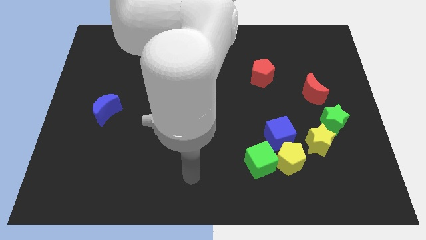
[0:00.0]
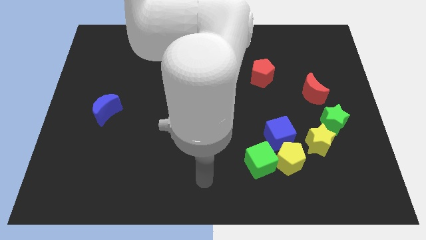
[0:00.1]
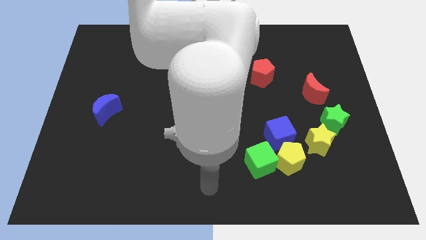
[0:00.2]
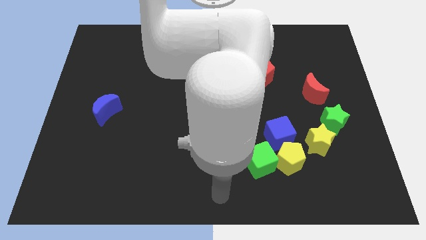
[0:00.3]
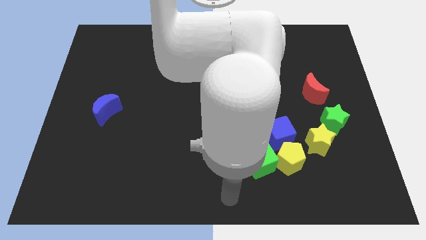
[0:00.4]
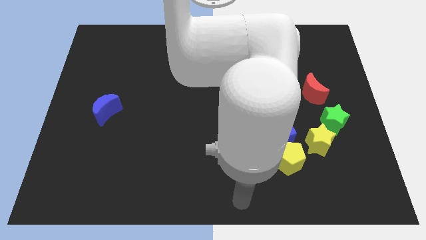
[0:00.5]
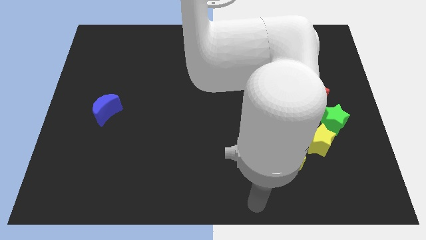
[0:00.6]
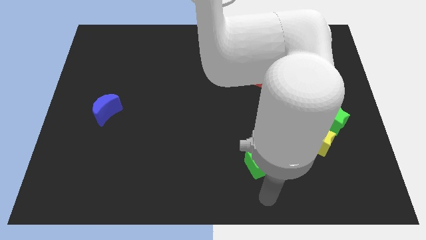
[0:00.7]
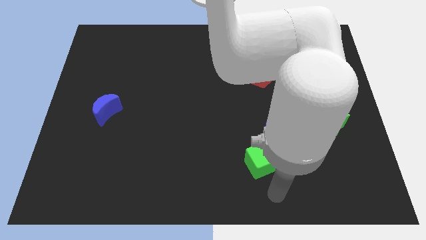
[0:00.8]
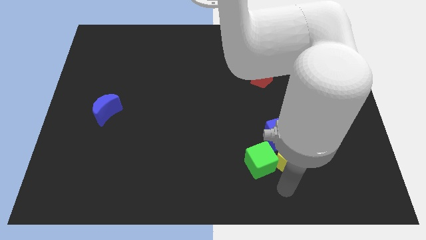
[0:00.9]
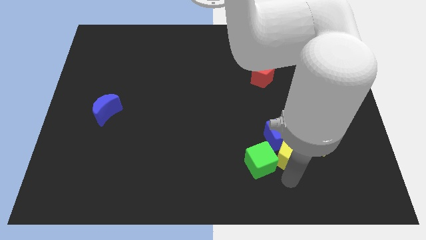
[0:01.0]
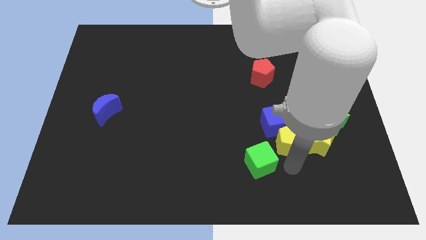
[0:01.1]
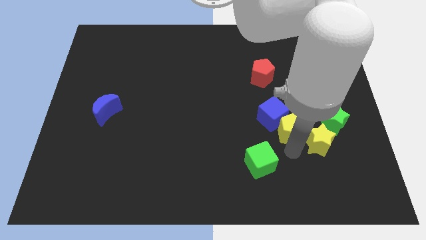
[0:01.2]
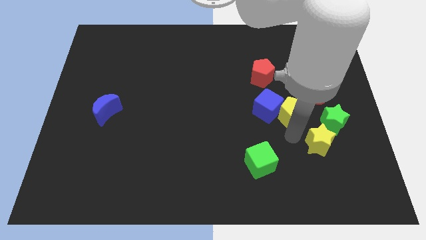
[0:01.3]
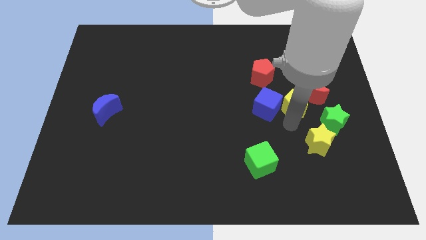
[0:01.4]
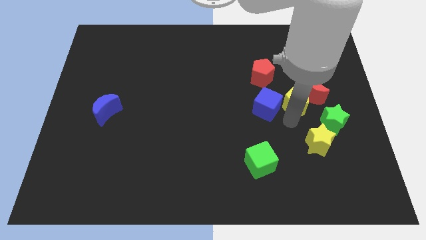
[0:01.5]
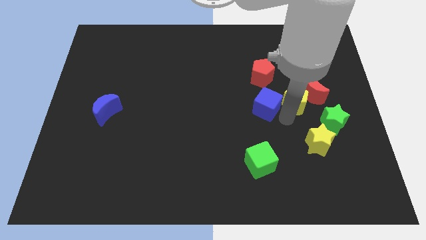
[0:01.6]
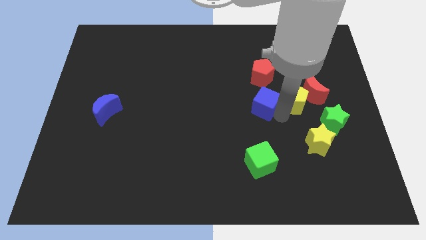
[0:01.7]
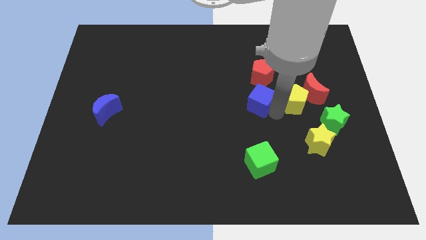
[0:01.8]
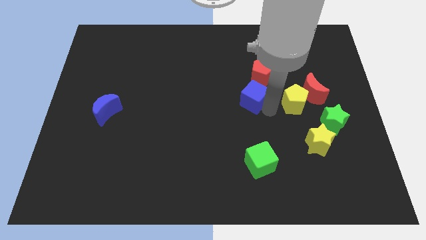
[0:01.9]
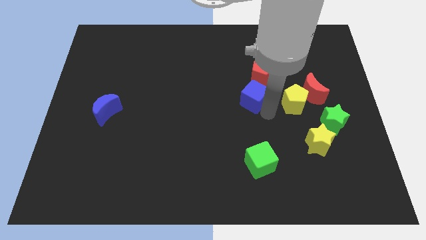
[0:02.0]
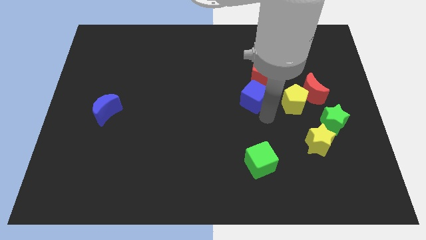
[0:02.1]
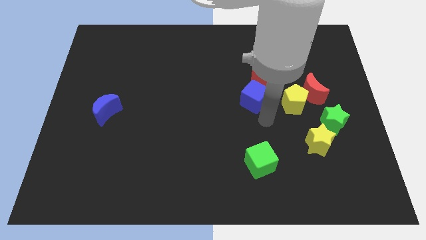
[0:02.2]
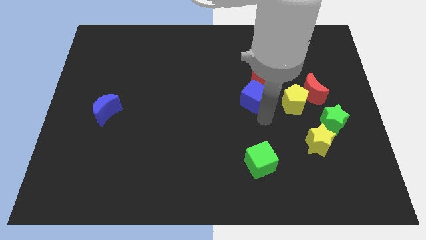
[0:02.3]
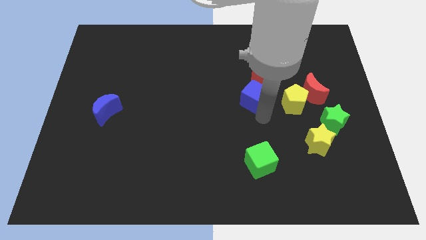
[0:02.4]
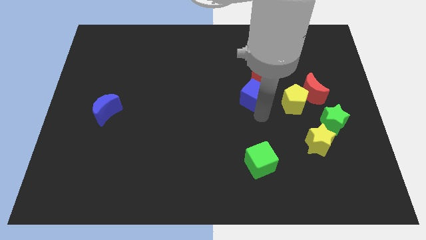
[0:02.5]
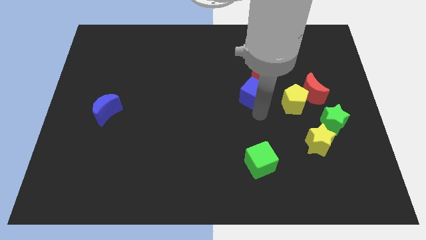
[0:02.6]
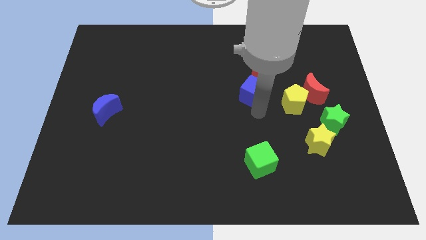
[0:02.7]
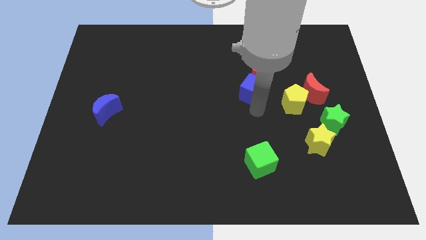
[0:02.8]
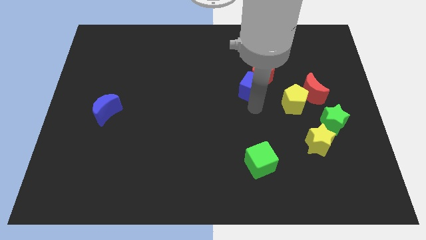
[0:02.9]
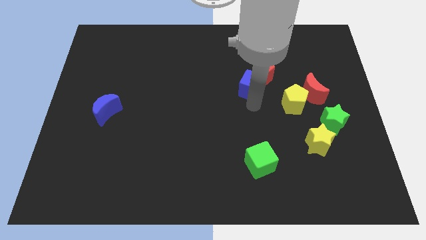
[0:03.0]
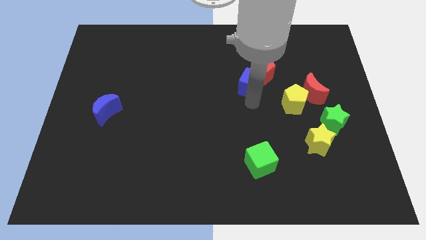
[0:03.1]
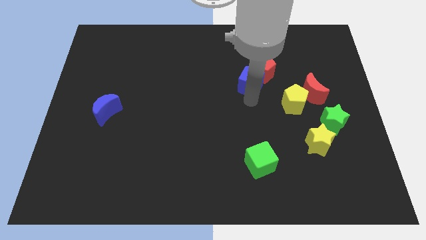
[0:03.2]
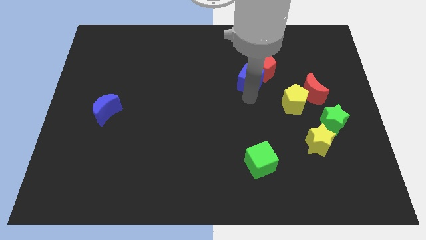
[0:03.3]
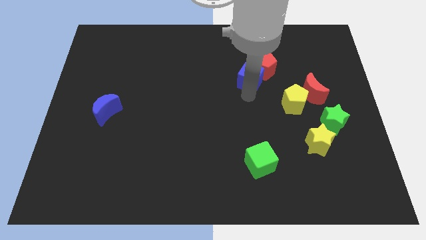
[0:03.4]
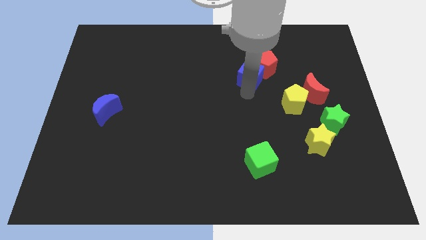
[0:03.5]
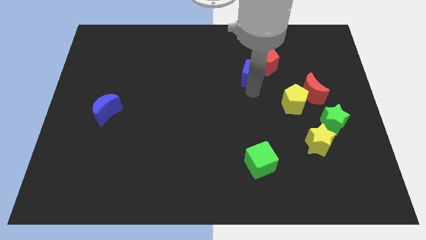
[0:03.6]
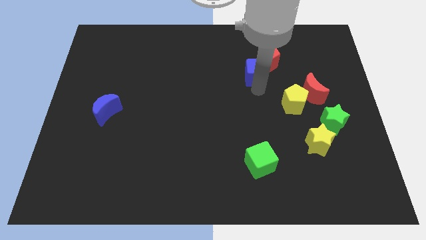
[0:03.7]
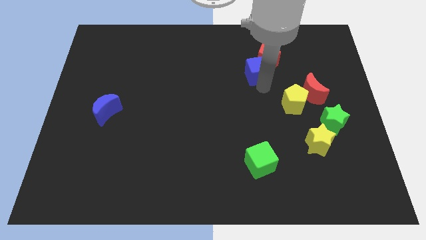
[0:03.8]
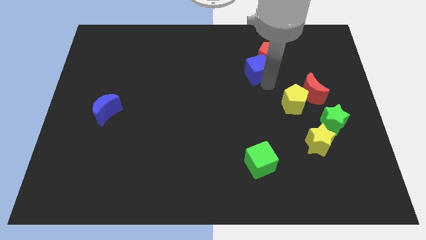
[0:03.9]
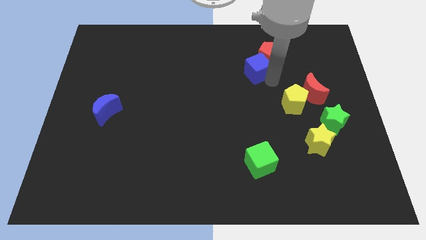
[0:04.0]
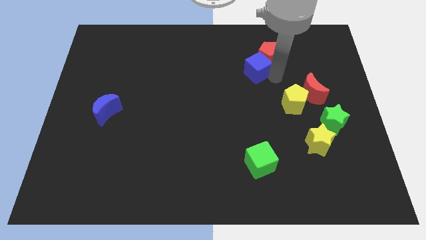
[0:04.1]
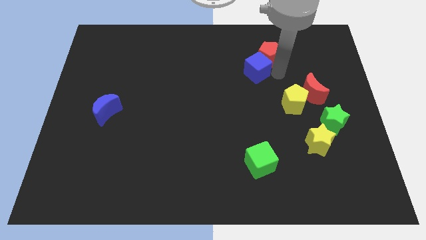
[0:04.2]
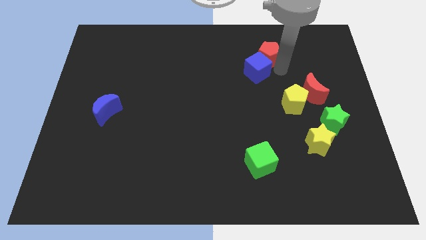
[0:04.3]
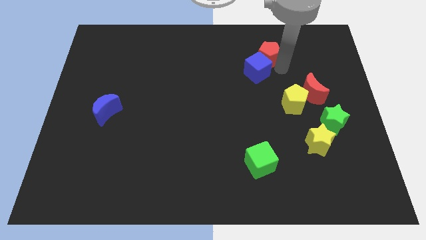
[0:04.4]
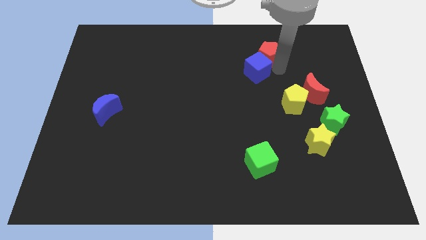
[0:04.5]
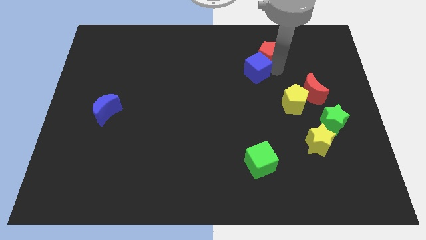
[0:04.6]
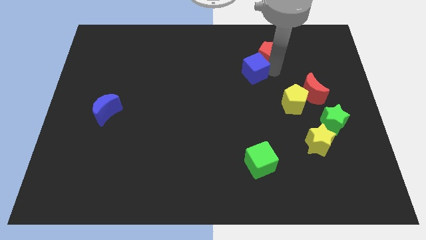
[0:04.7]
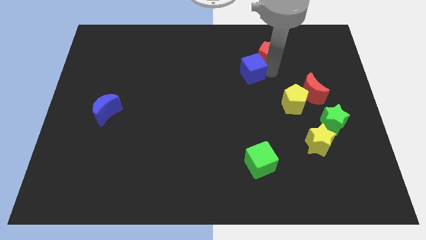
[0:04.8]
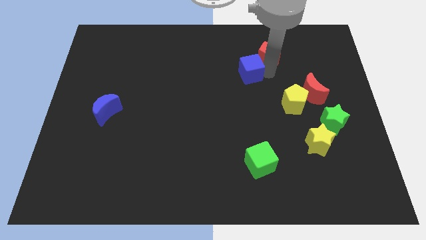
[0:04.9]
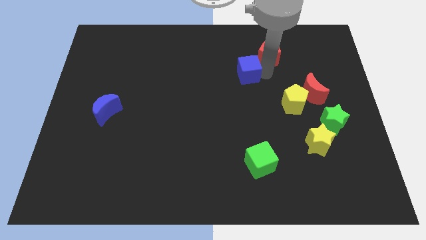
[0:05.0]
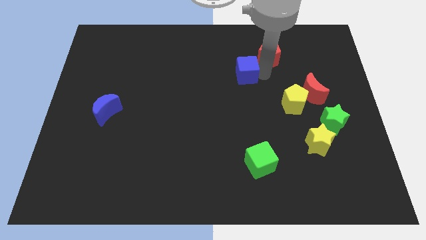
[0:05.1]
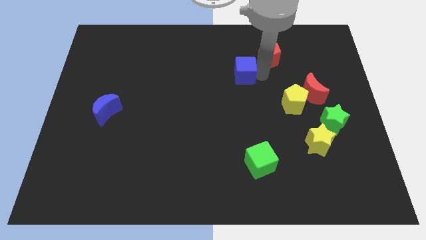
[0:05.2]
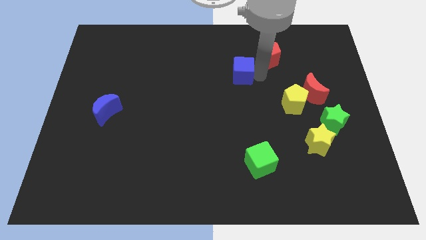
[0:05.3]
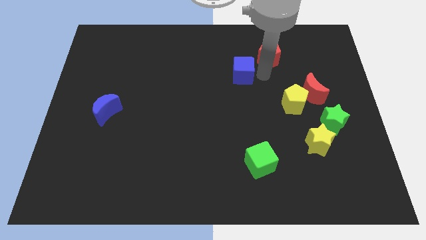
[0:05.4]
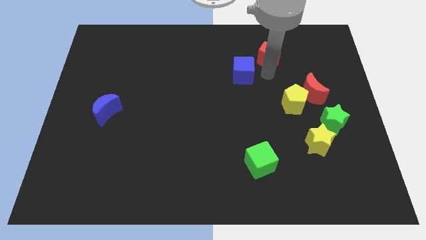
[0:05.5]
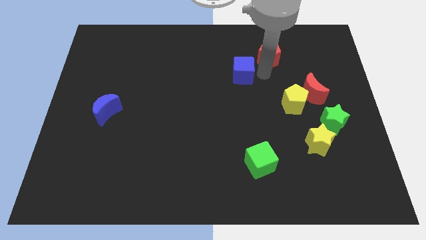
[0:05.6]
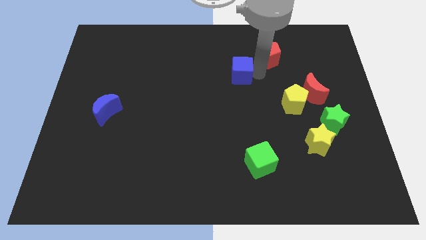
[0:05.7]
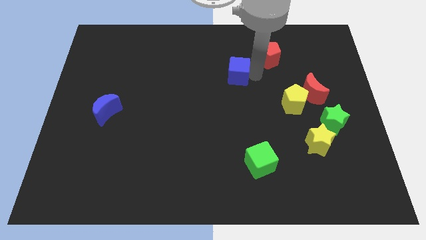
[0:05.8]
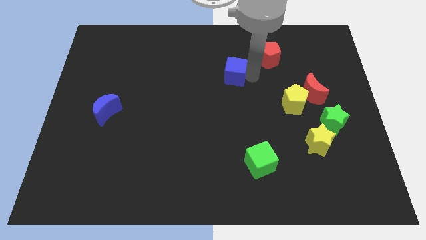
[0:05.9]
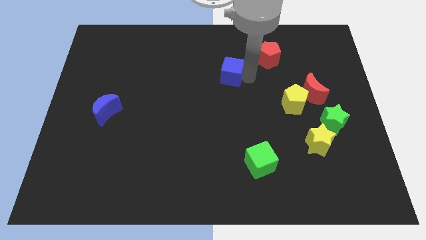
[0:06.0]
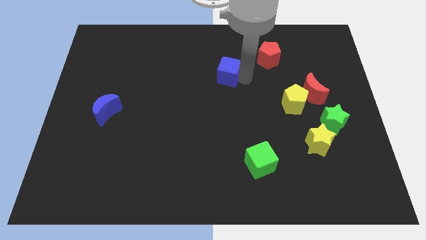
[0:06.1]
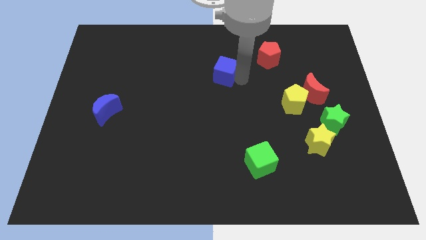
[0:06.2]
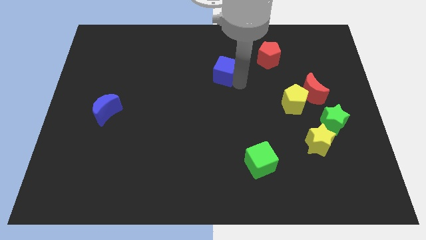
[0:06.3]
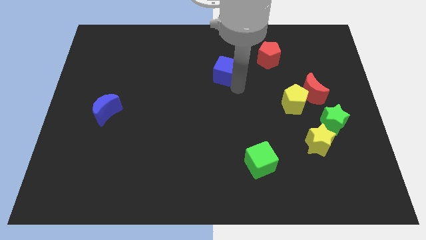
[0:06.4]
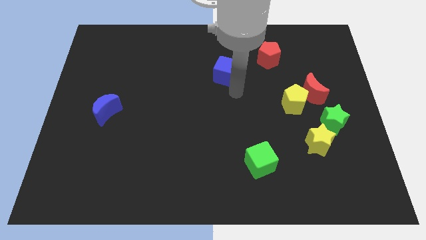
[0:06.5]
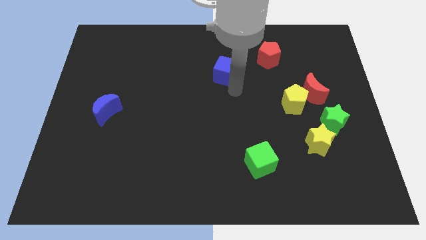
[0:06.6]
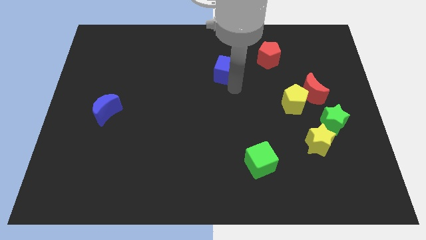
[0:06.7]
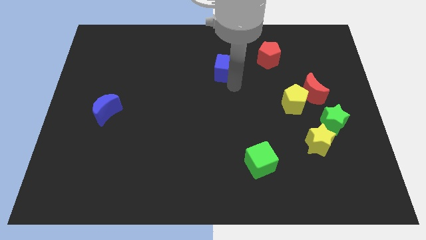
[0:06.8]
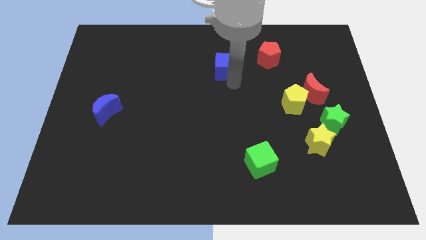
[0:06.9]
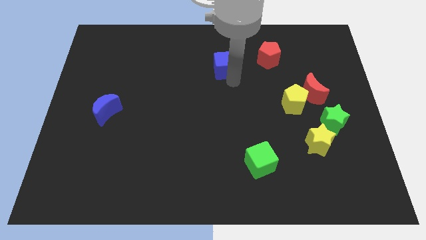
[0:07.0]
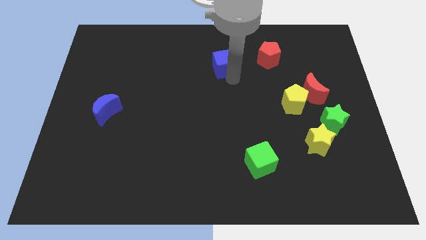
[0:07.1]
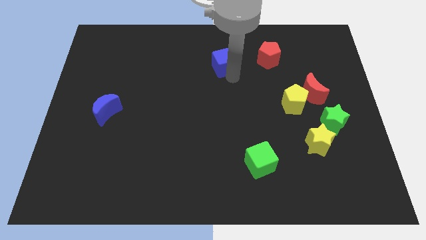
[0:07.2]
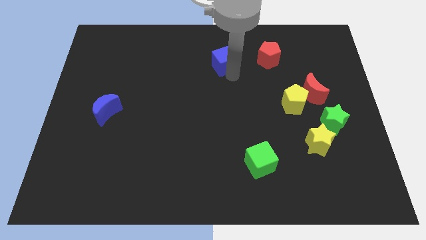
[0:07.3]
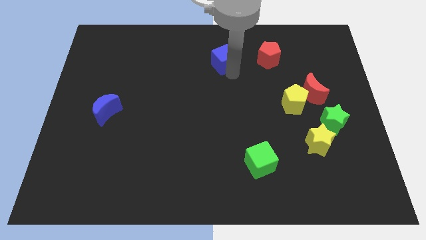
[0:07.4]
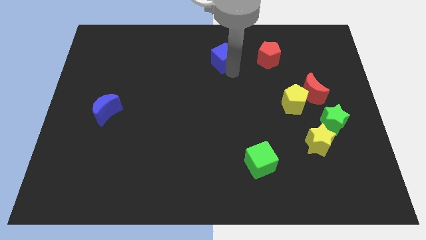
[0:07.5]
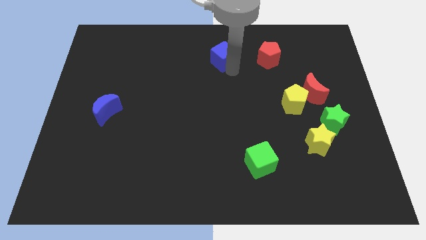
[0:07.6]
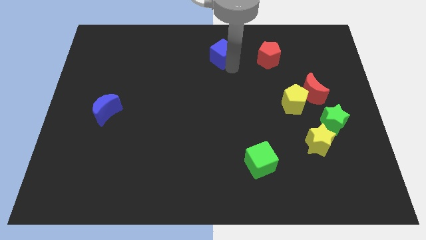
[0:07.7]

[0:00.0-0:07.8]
put the blue cube to the top side
